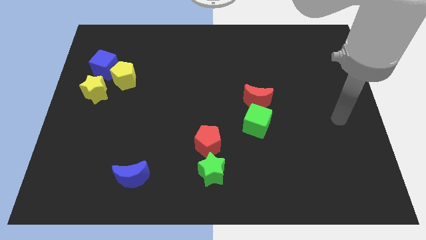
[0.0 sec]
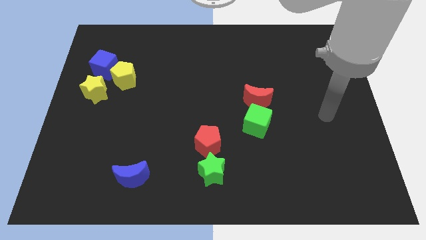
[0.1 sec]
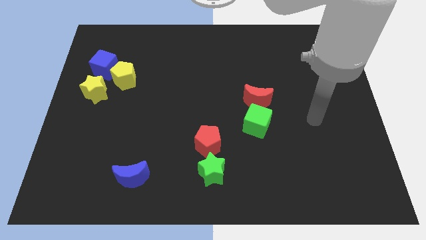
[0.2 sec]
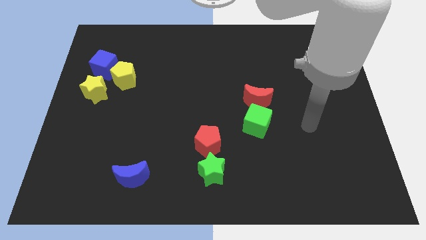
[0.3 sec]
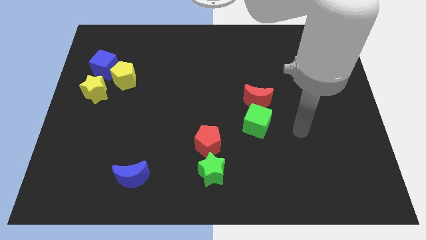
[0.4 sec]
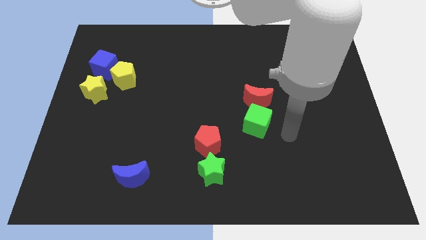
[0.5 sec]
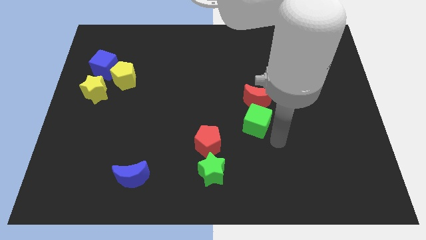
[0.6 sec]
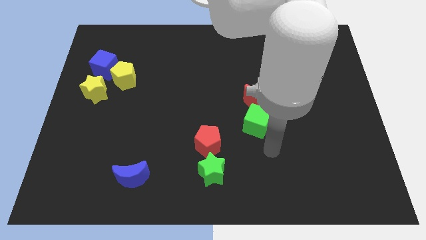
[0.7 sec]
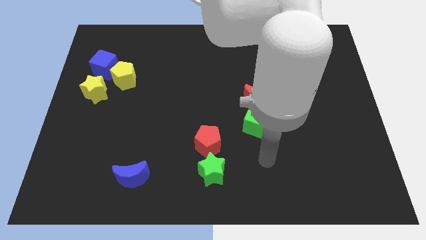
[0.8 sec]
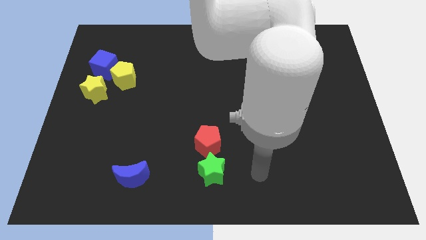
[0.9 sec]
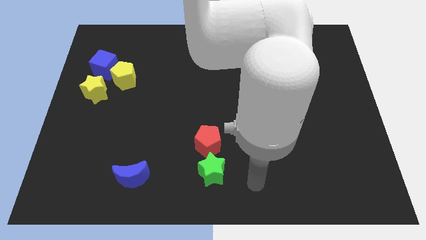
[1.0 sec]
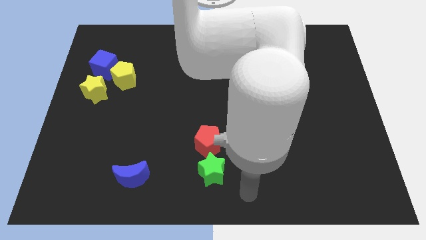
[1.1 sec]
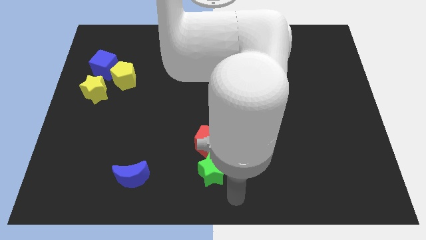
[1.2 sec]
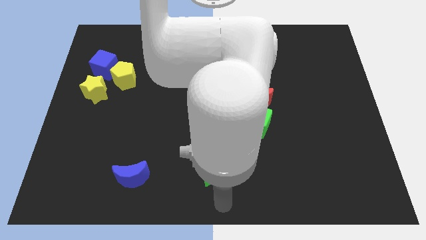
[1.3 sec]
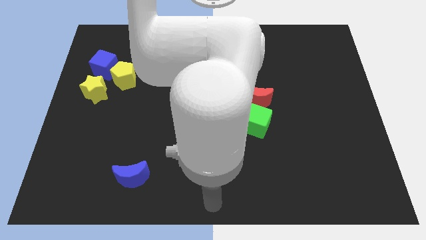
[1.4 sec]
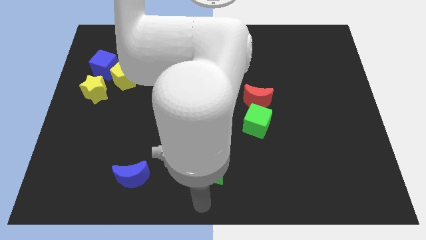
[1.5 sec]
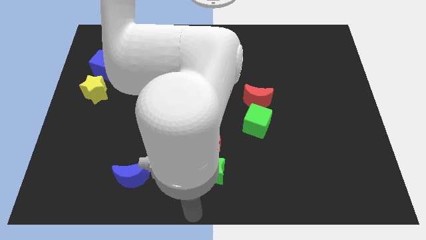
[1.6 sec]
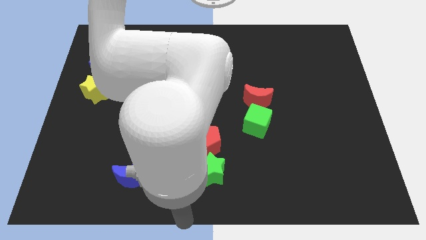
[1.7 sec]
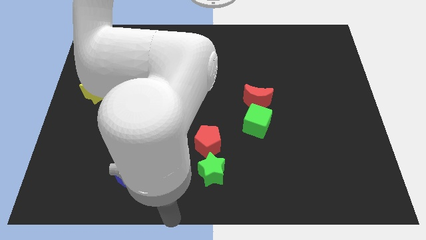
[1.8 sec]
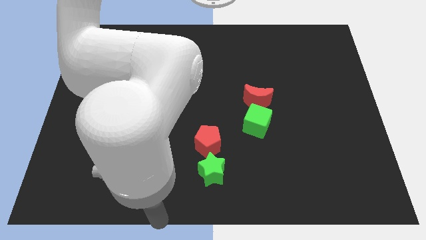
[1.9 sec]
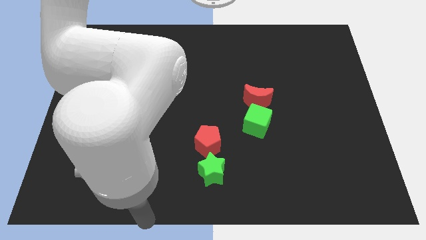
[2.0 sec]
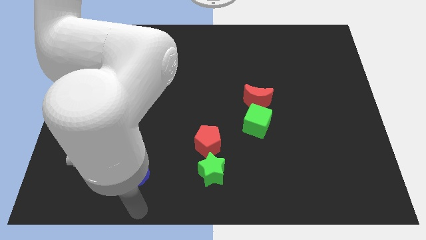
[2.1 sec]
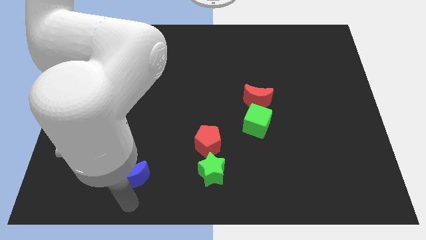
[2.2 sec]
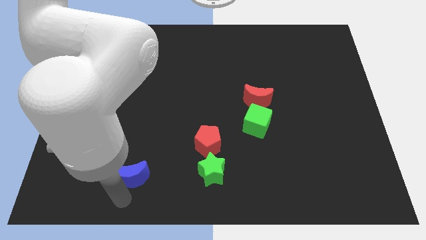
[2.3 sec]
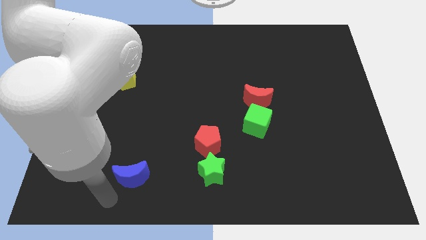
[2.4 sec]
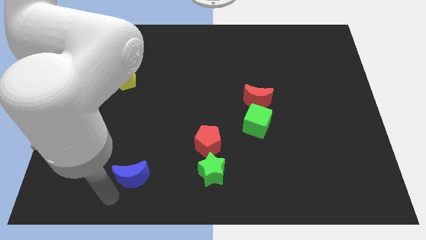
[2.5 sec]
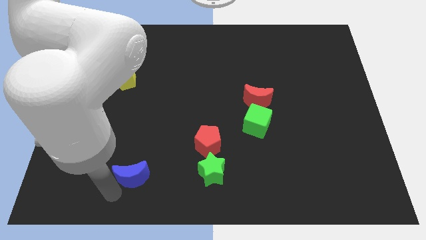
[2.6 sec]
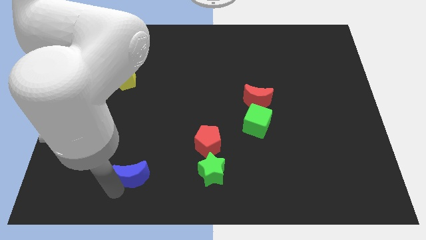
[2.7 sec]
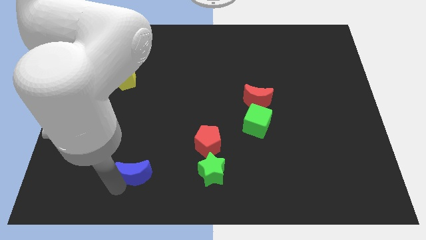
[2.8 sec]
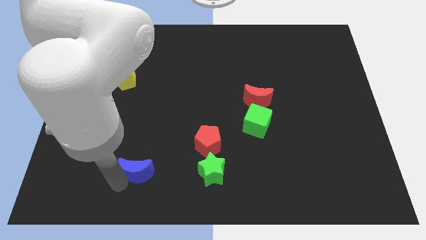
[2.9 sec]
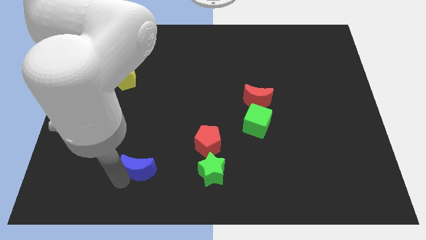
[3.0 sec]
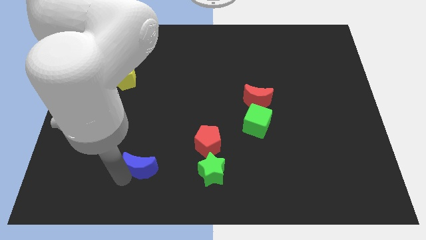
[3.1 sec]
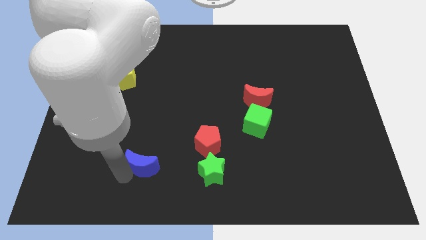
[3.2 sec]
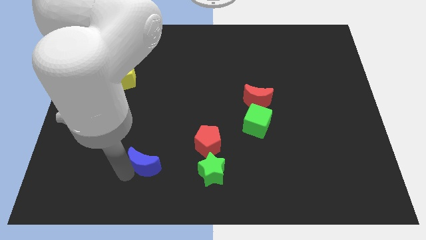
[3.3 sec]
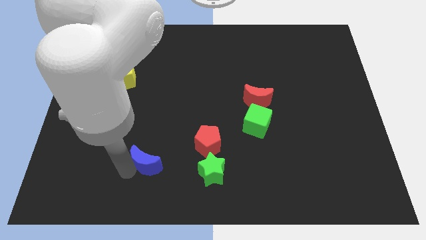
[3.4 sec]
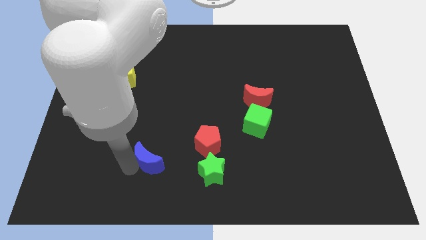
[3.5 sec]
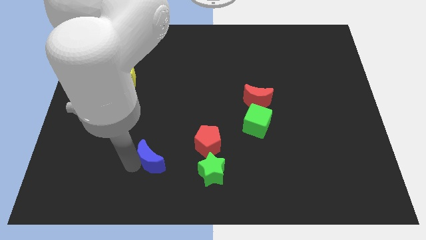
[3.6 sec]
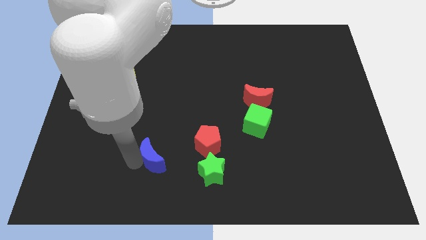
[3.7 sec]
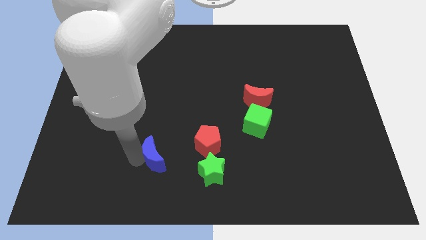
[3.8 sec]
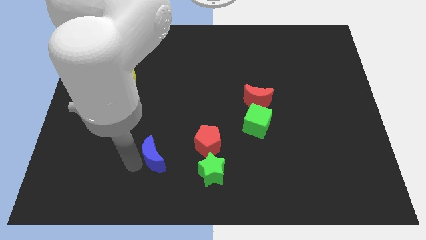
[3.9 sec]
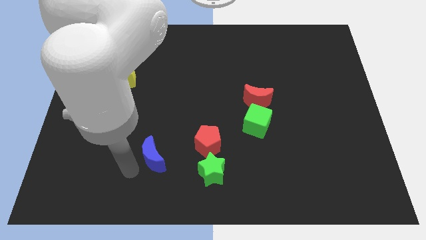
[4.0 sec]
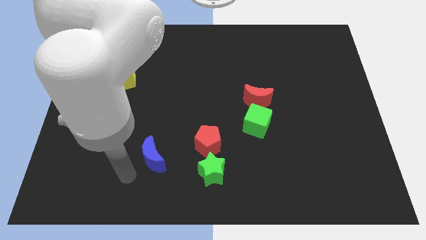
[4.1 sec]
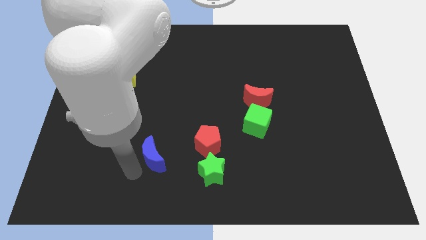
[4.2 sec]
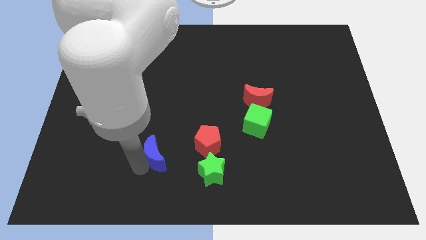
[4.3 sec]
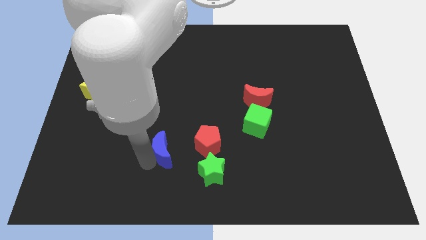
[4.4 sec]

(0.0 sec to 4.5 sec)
slightly move the blue moon up and right

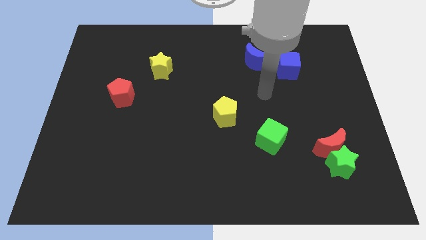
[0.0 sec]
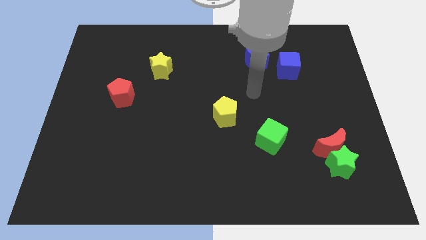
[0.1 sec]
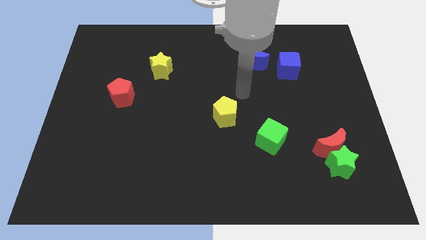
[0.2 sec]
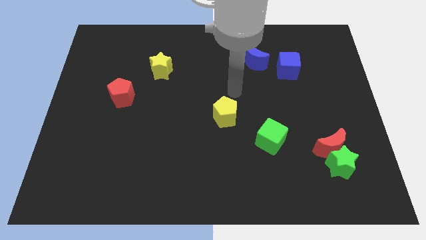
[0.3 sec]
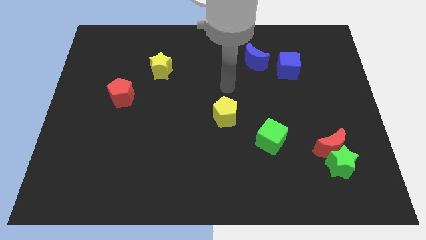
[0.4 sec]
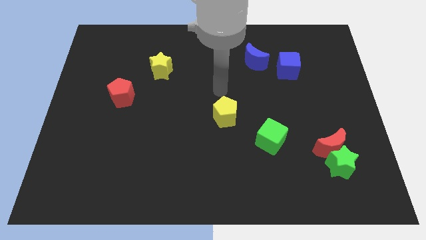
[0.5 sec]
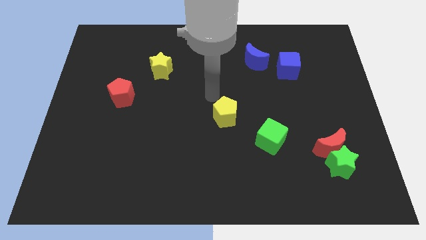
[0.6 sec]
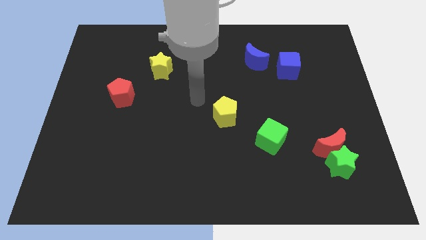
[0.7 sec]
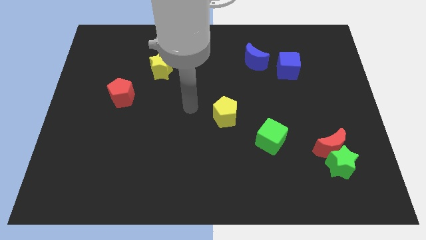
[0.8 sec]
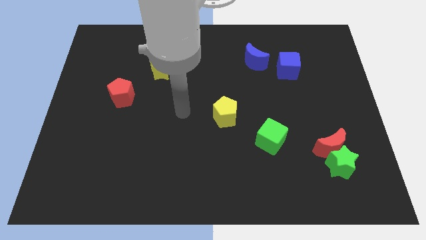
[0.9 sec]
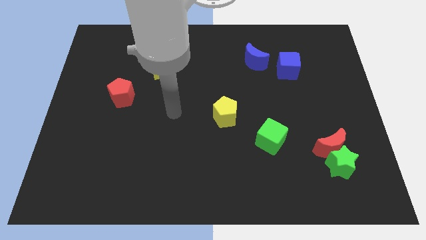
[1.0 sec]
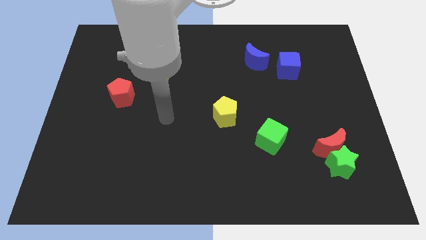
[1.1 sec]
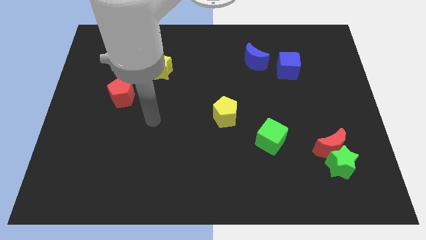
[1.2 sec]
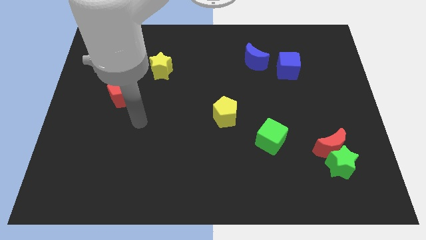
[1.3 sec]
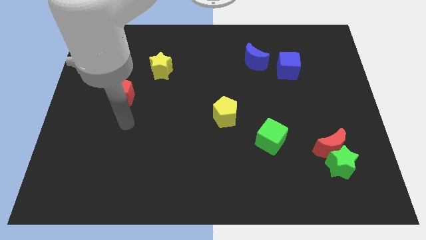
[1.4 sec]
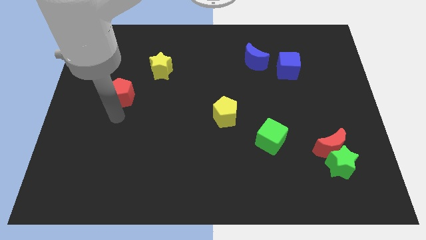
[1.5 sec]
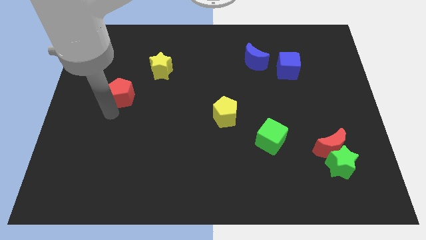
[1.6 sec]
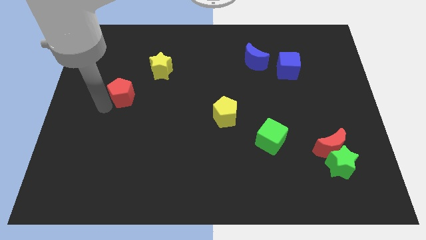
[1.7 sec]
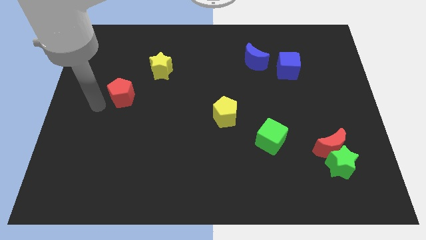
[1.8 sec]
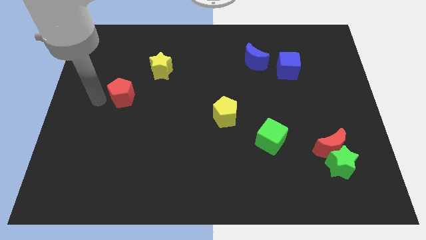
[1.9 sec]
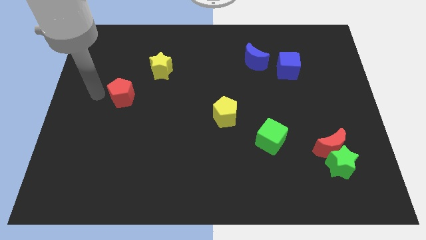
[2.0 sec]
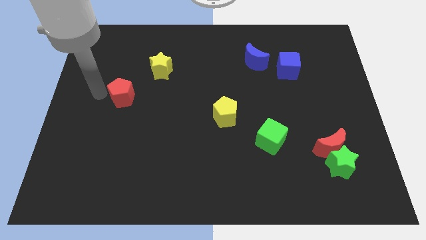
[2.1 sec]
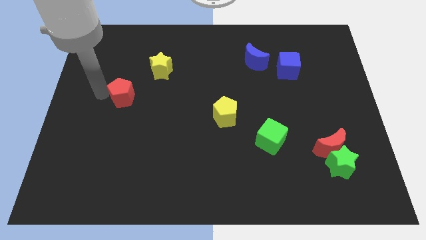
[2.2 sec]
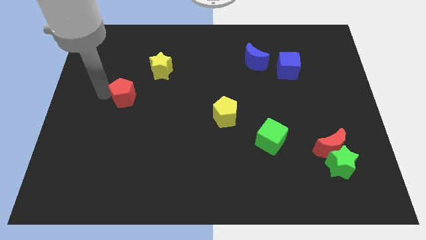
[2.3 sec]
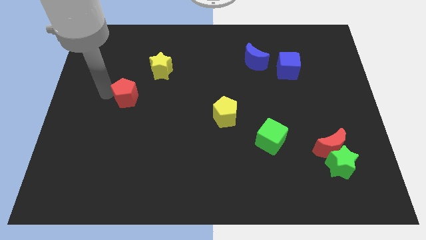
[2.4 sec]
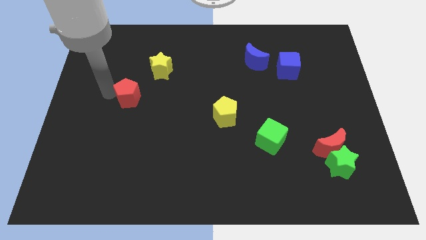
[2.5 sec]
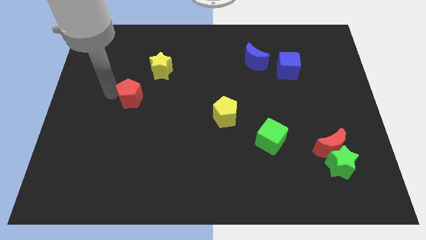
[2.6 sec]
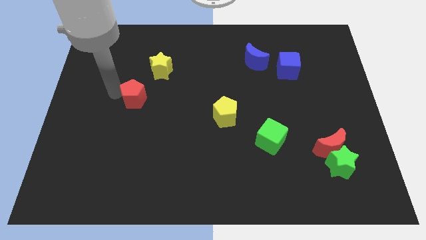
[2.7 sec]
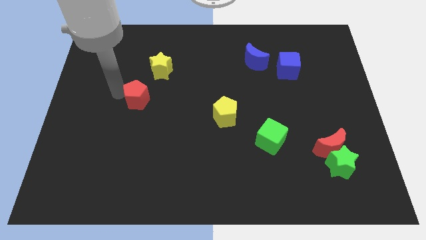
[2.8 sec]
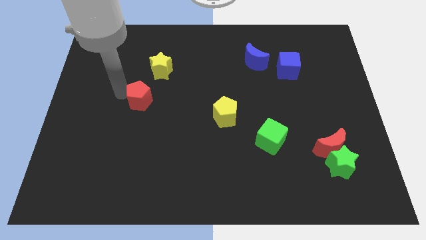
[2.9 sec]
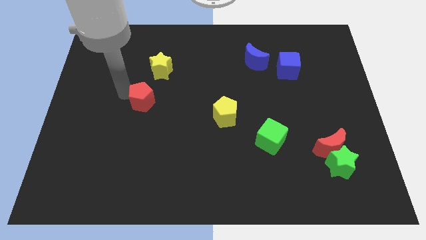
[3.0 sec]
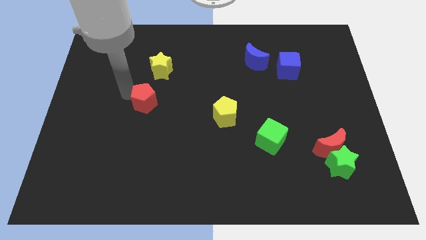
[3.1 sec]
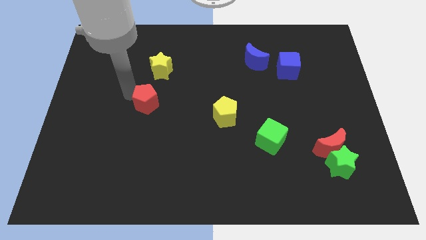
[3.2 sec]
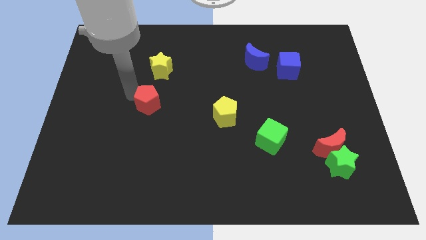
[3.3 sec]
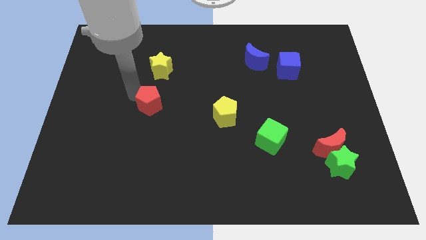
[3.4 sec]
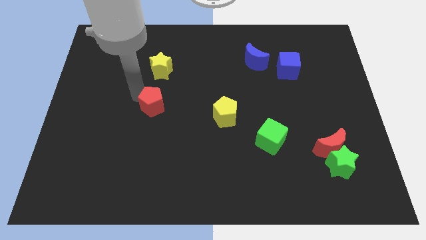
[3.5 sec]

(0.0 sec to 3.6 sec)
push the red pentagon slightly downwards and right diagonally
